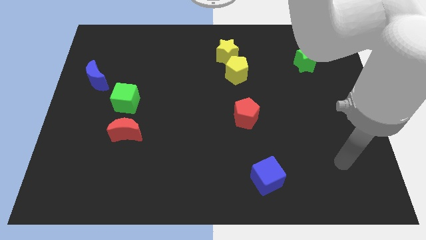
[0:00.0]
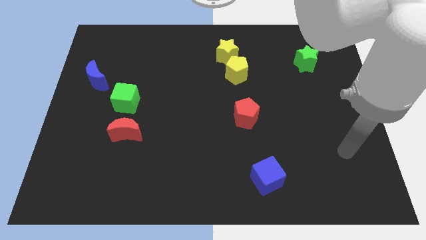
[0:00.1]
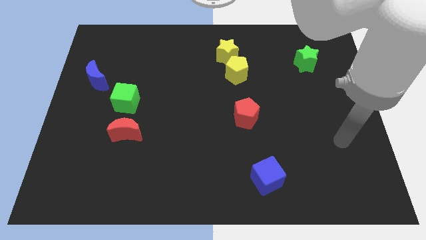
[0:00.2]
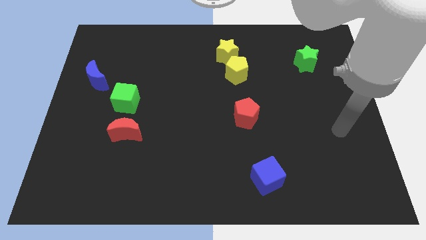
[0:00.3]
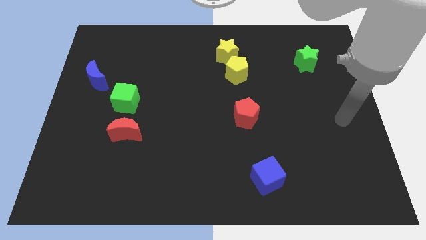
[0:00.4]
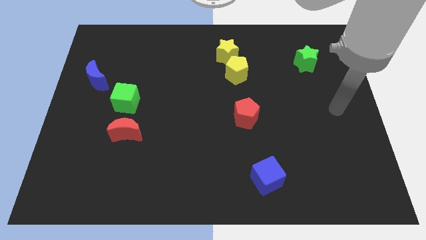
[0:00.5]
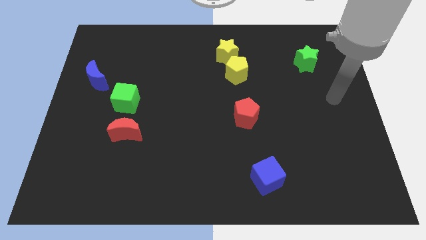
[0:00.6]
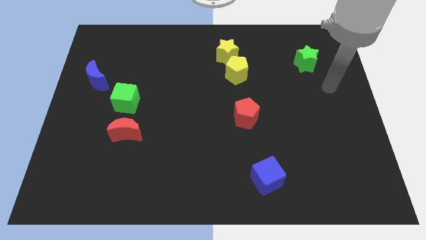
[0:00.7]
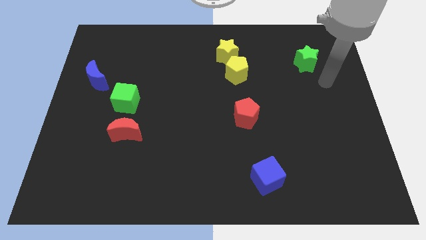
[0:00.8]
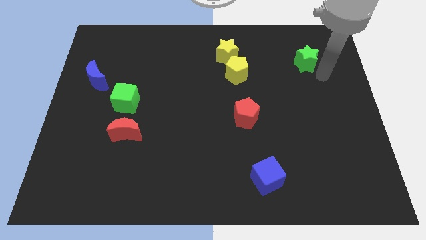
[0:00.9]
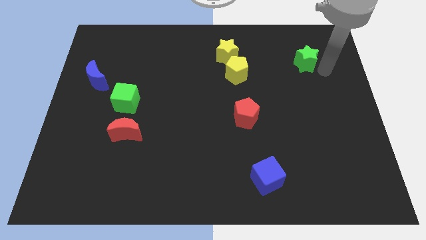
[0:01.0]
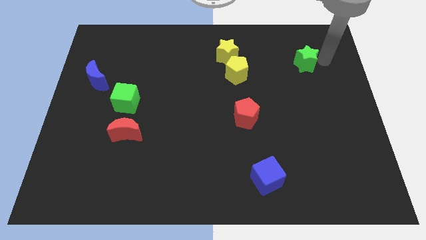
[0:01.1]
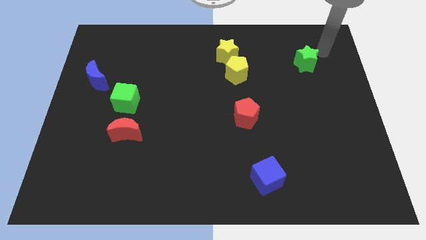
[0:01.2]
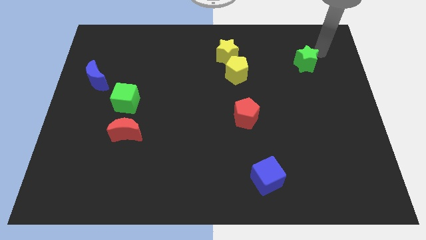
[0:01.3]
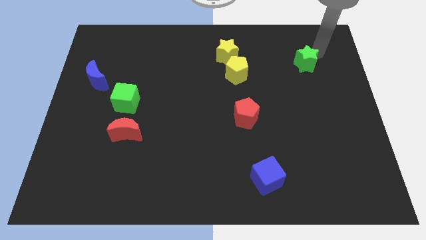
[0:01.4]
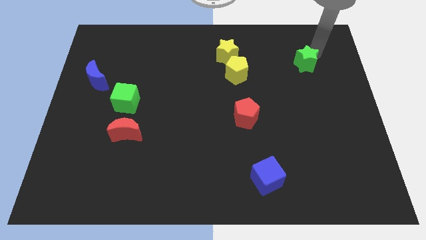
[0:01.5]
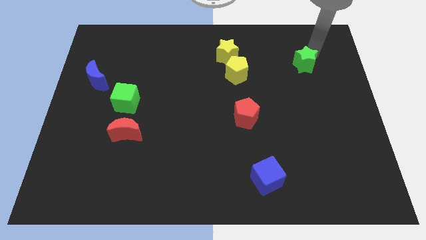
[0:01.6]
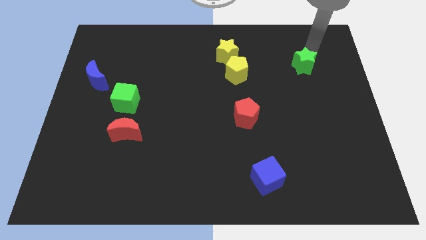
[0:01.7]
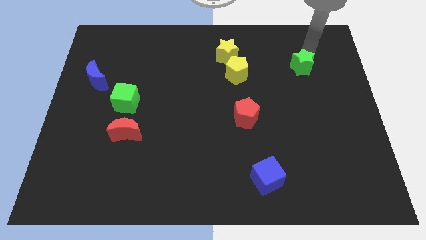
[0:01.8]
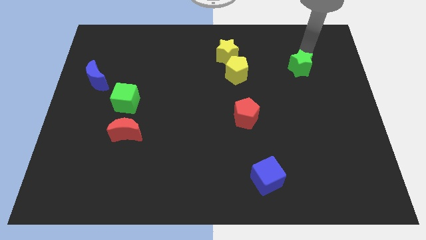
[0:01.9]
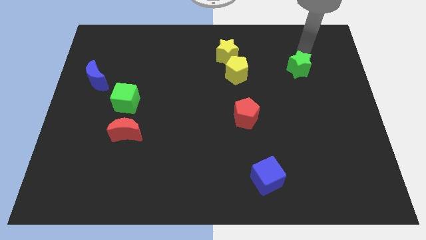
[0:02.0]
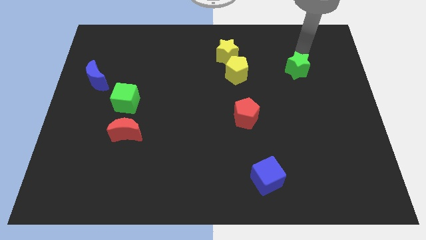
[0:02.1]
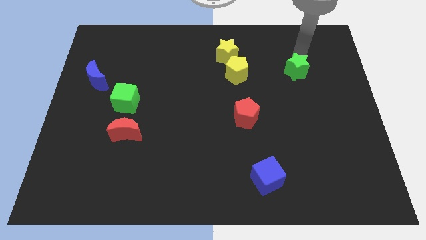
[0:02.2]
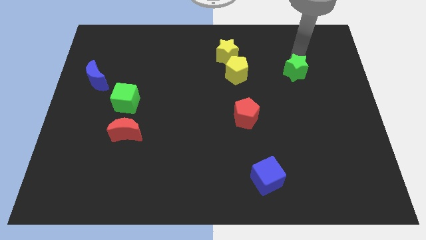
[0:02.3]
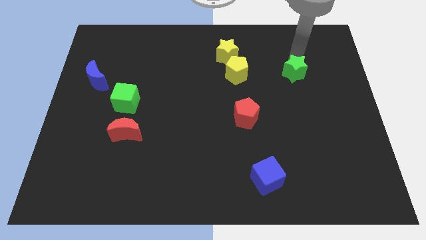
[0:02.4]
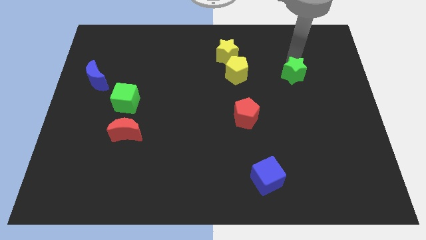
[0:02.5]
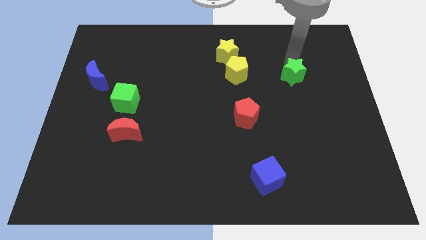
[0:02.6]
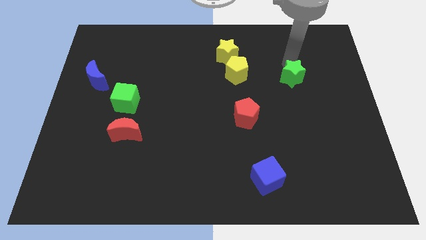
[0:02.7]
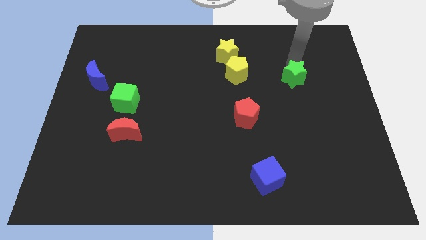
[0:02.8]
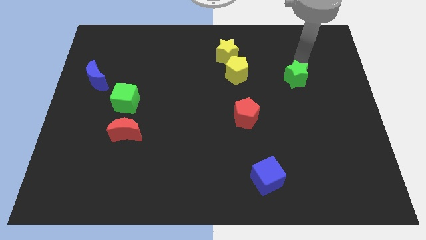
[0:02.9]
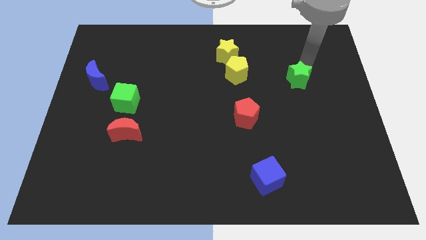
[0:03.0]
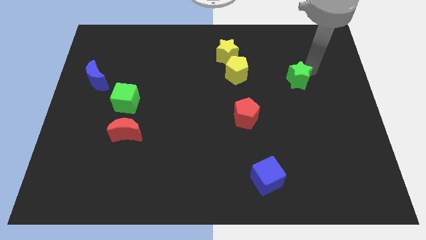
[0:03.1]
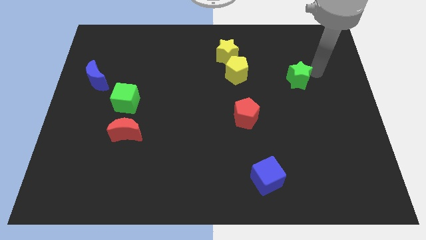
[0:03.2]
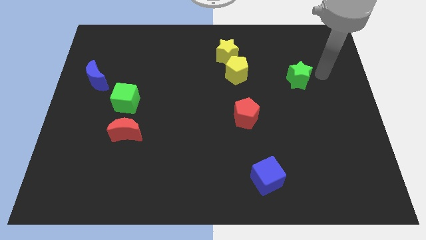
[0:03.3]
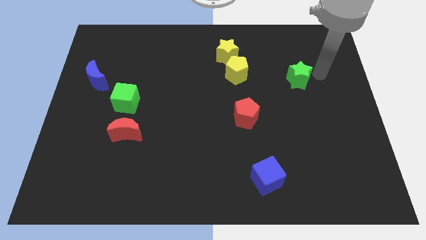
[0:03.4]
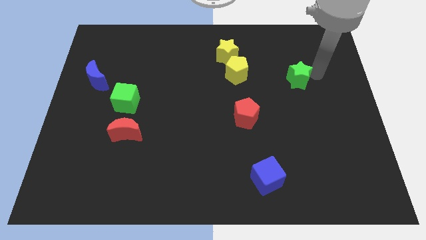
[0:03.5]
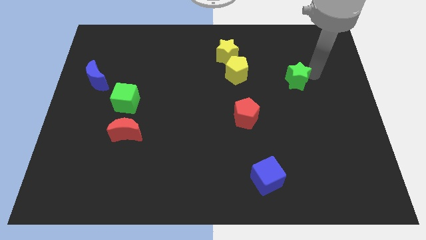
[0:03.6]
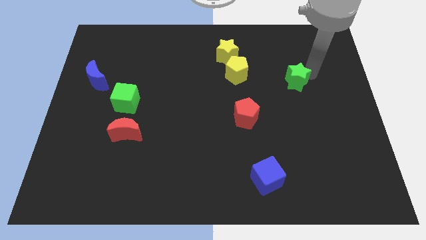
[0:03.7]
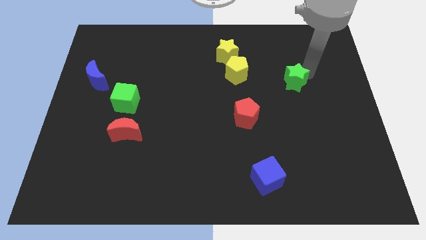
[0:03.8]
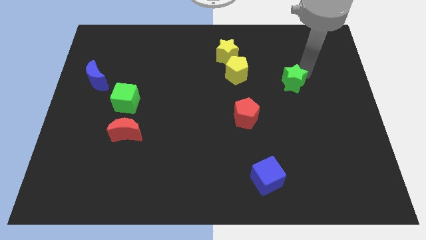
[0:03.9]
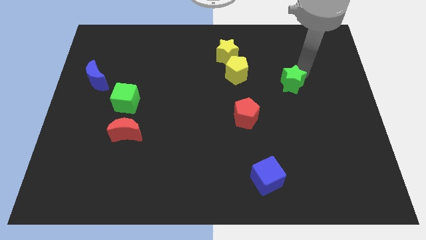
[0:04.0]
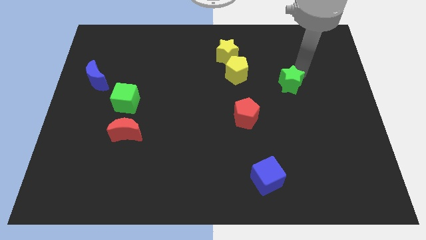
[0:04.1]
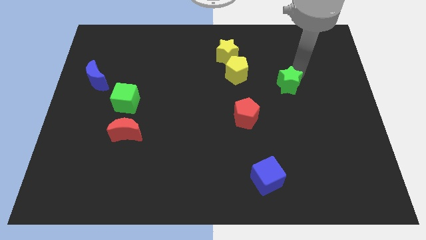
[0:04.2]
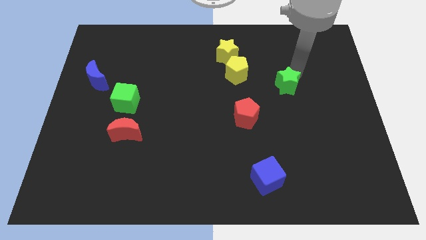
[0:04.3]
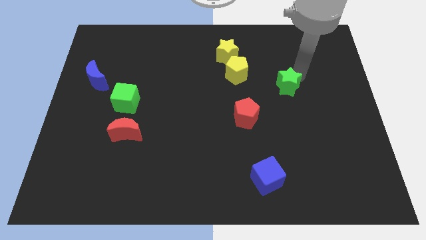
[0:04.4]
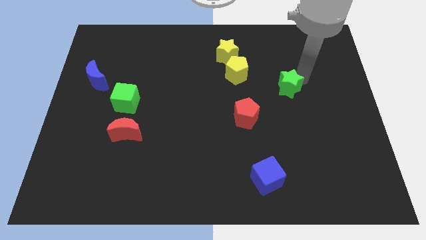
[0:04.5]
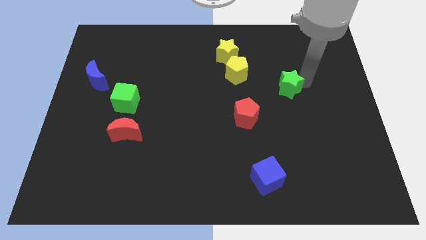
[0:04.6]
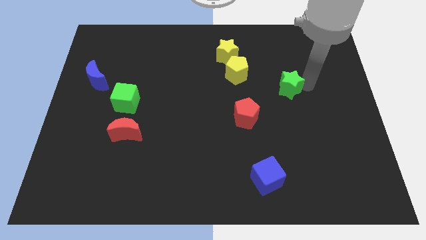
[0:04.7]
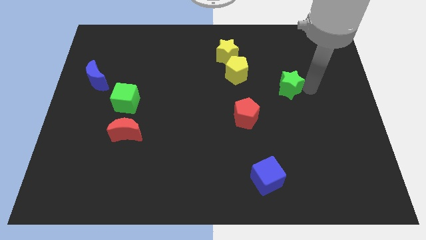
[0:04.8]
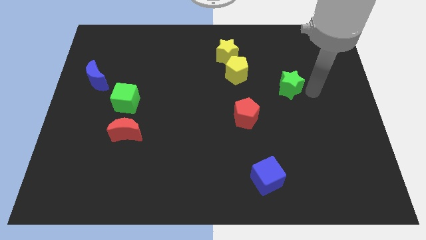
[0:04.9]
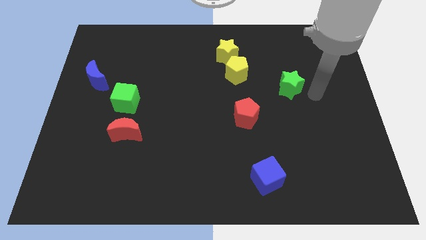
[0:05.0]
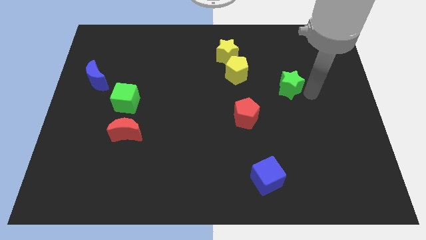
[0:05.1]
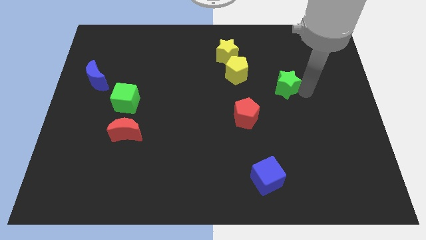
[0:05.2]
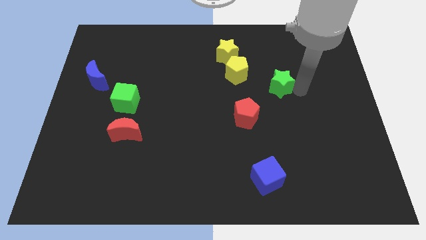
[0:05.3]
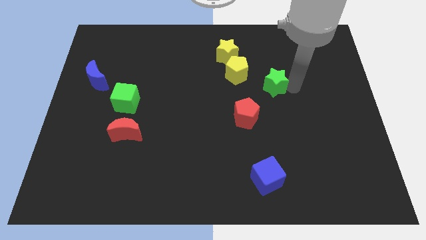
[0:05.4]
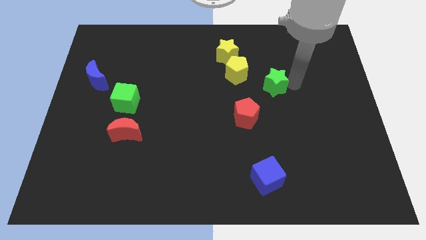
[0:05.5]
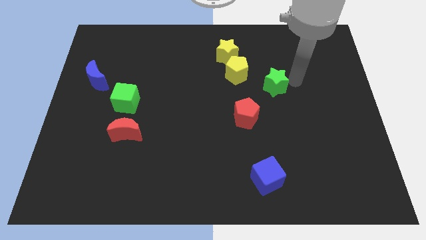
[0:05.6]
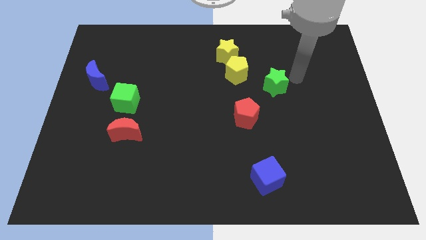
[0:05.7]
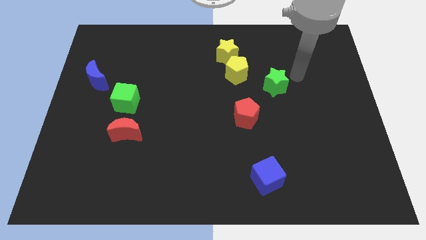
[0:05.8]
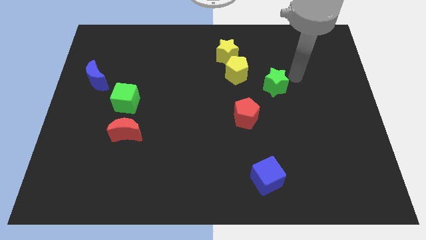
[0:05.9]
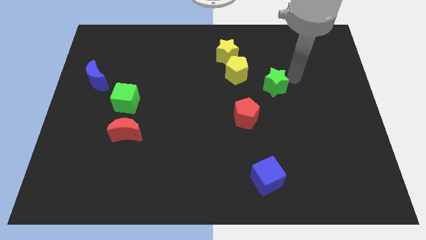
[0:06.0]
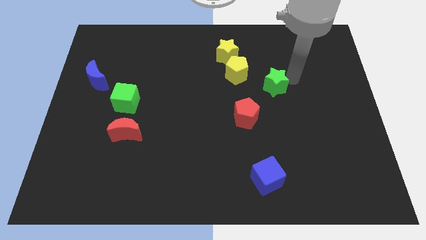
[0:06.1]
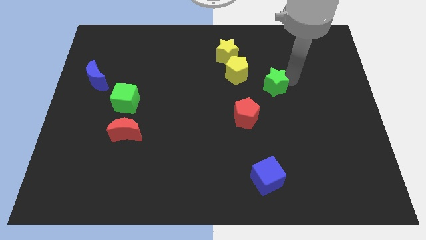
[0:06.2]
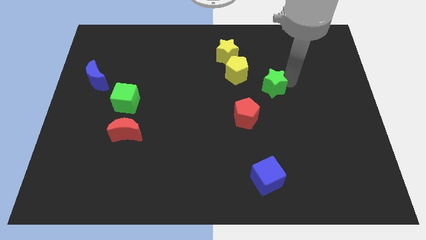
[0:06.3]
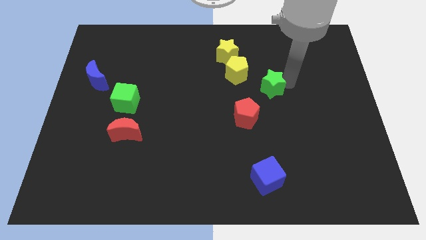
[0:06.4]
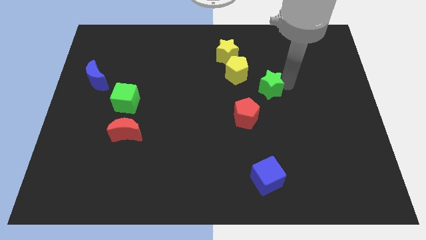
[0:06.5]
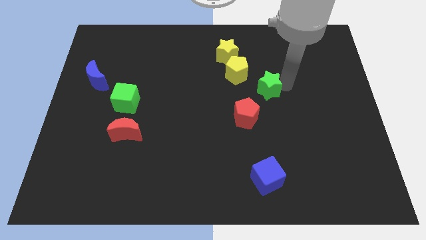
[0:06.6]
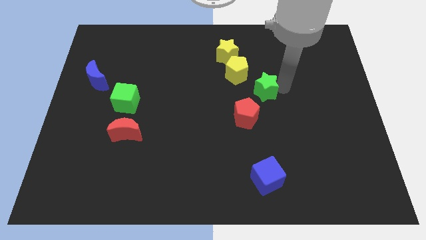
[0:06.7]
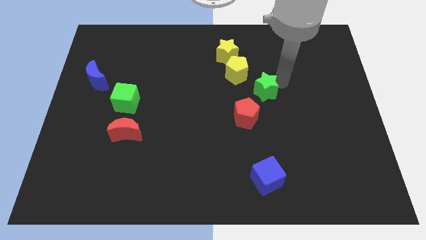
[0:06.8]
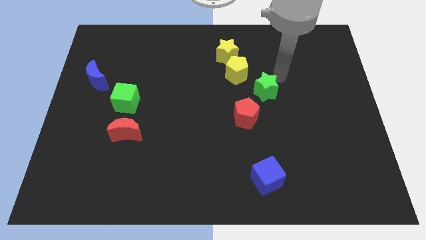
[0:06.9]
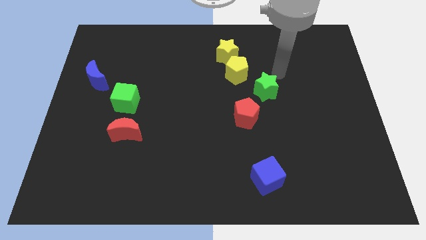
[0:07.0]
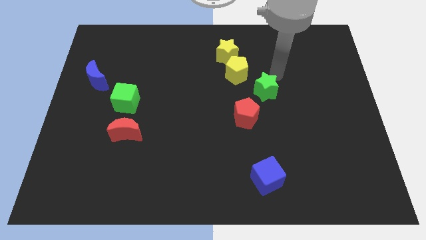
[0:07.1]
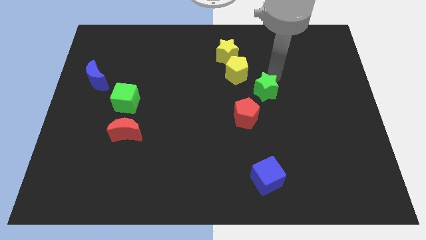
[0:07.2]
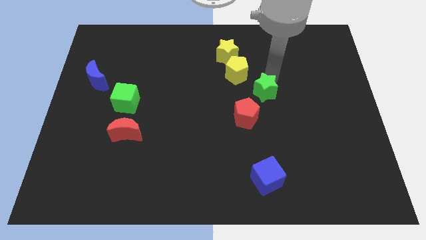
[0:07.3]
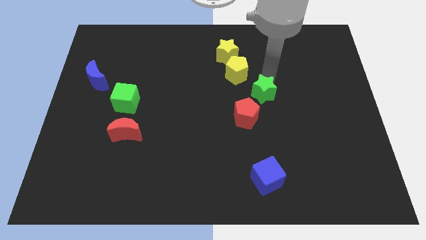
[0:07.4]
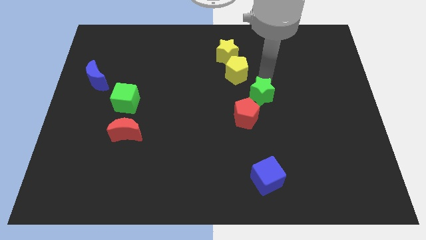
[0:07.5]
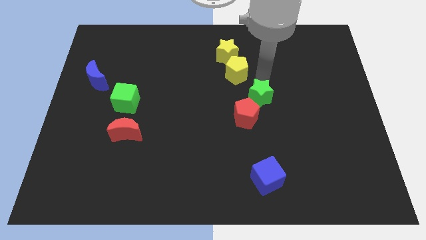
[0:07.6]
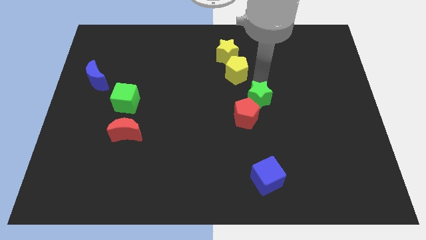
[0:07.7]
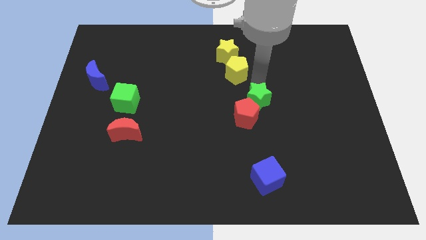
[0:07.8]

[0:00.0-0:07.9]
move the green star close to the red pentagon
